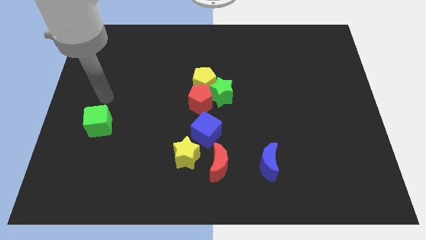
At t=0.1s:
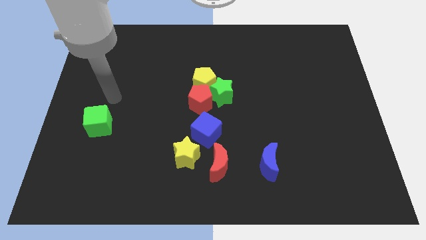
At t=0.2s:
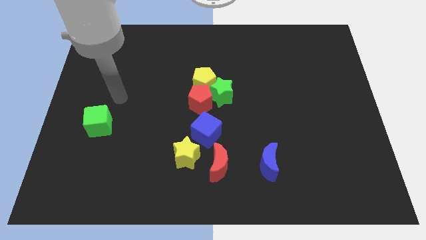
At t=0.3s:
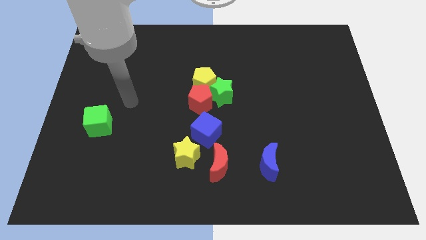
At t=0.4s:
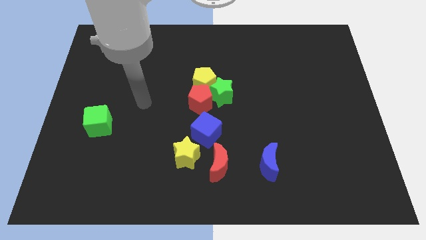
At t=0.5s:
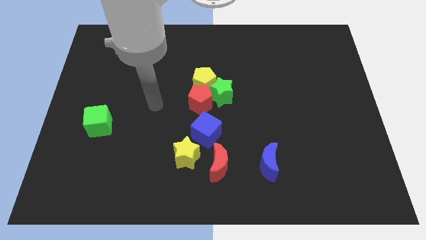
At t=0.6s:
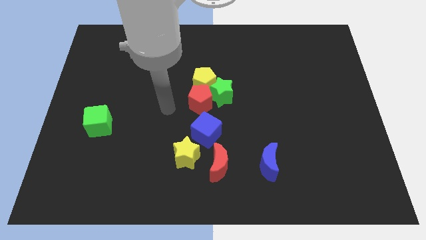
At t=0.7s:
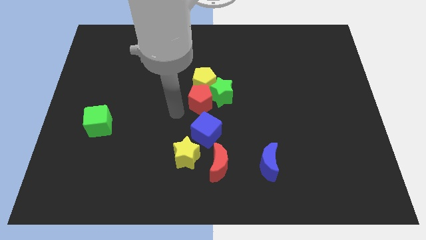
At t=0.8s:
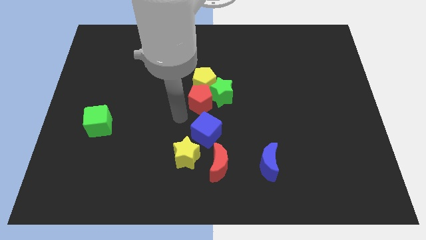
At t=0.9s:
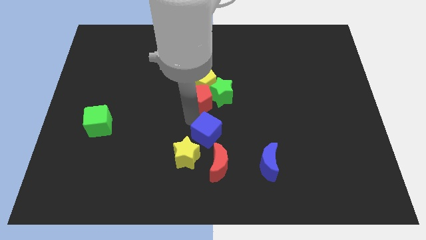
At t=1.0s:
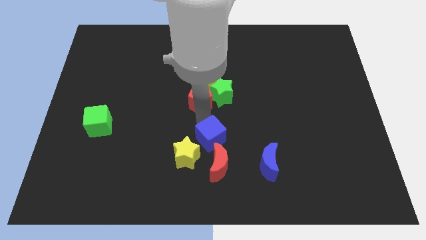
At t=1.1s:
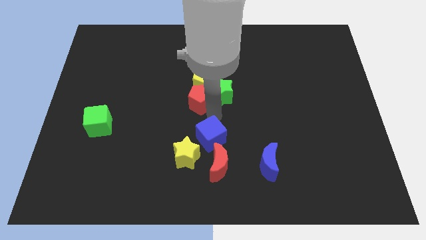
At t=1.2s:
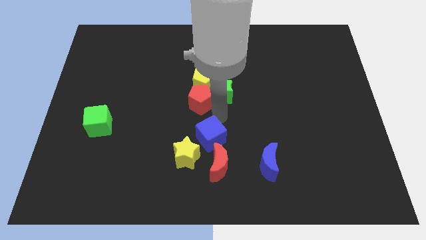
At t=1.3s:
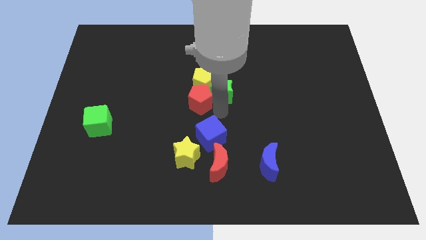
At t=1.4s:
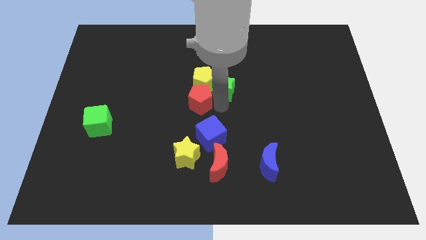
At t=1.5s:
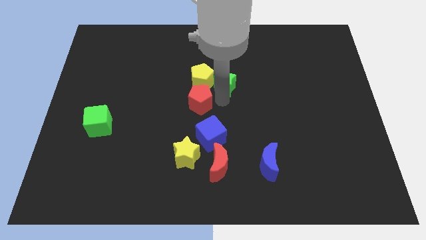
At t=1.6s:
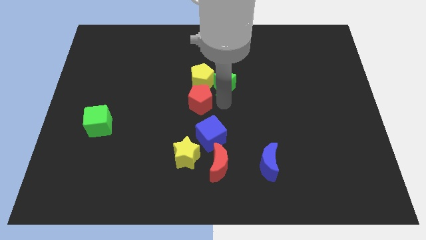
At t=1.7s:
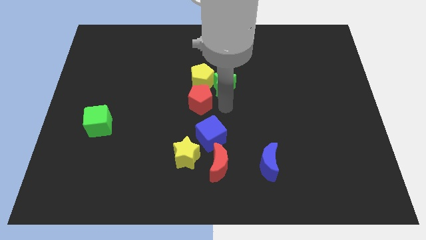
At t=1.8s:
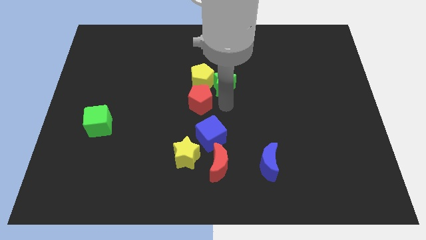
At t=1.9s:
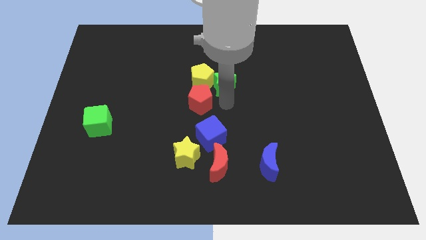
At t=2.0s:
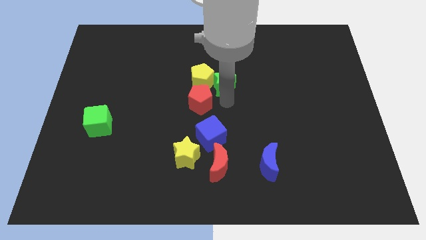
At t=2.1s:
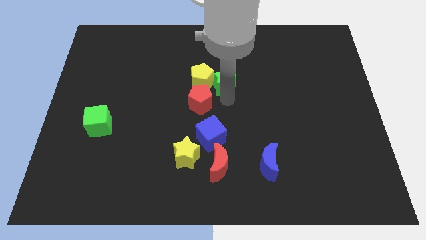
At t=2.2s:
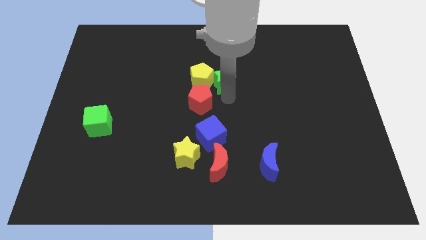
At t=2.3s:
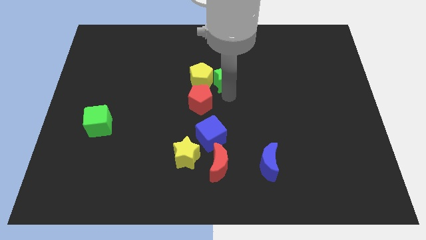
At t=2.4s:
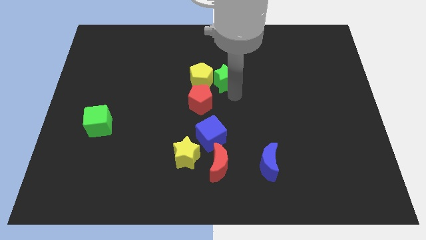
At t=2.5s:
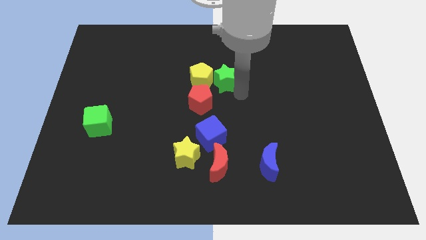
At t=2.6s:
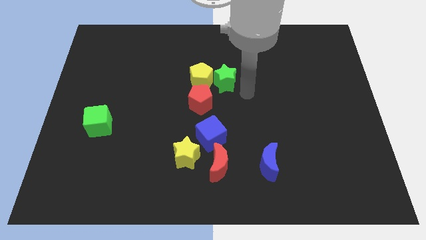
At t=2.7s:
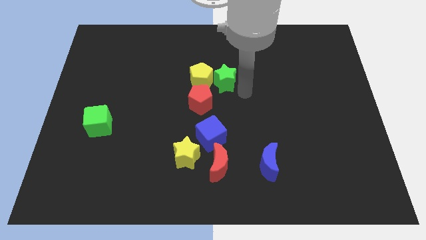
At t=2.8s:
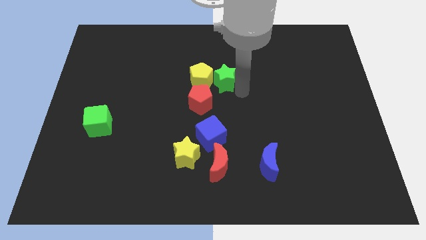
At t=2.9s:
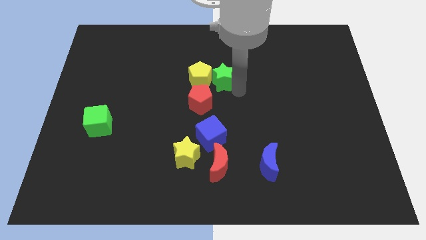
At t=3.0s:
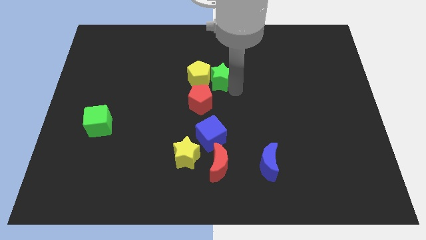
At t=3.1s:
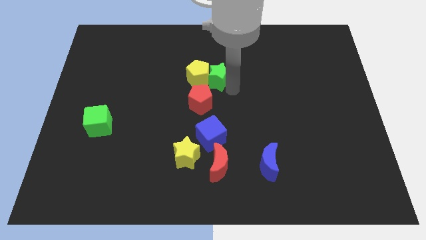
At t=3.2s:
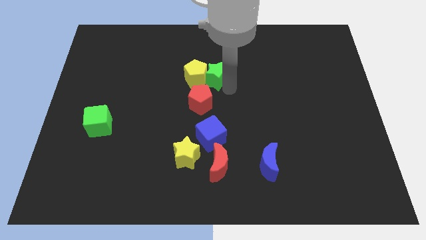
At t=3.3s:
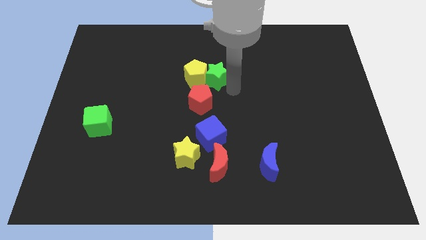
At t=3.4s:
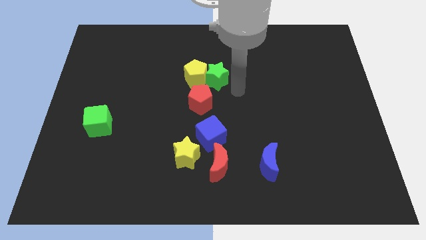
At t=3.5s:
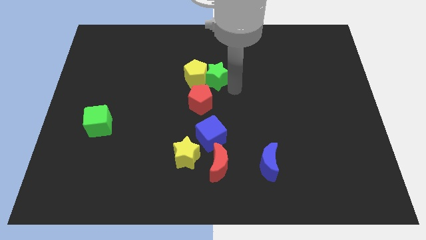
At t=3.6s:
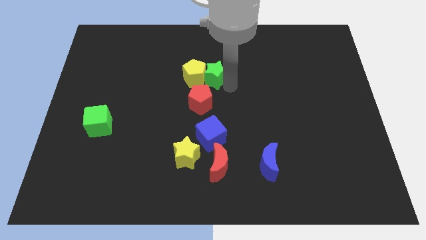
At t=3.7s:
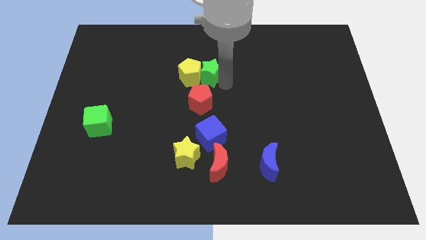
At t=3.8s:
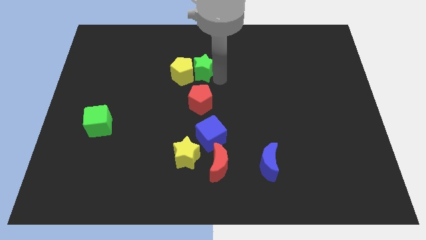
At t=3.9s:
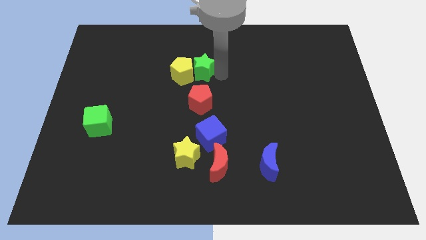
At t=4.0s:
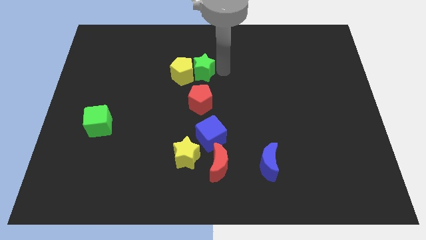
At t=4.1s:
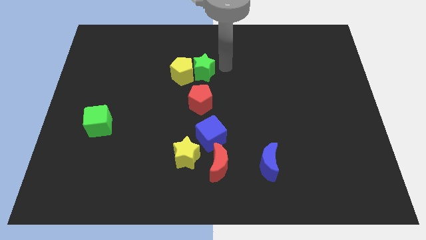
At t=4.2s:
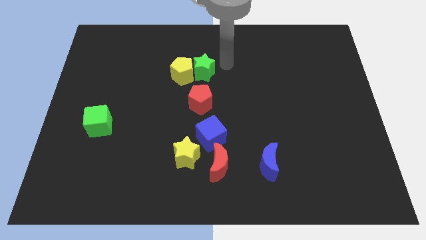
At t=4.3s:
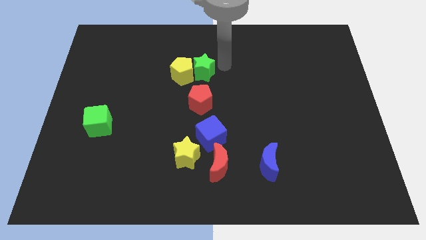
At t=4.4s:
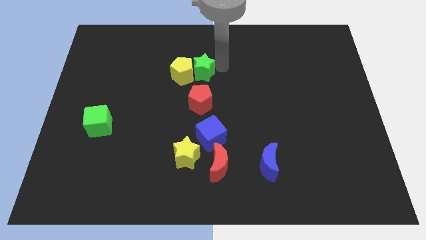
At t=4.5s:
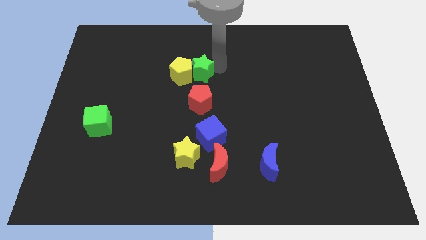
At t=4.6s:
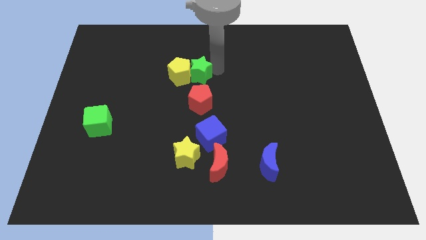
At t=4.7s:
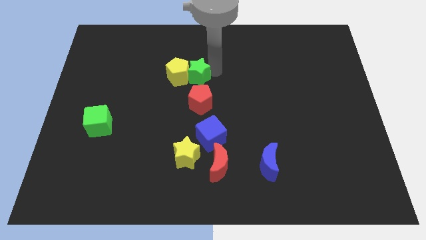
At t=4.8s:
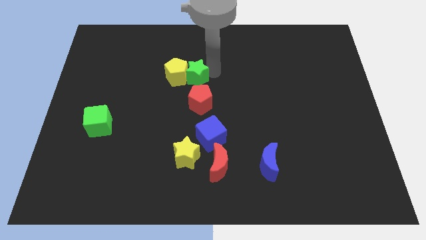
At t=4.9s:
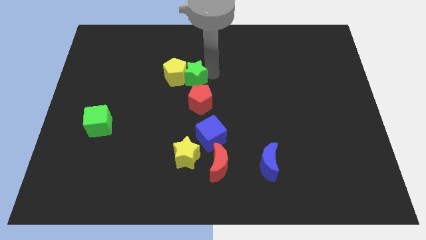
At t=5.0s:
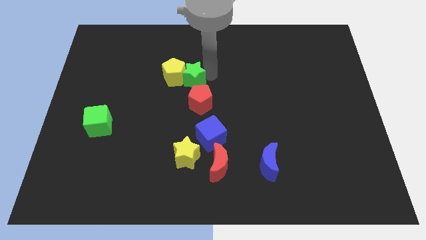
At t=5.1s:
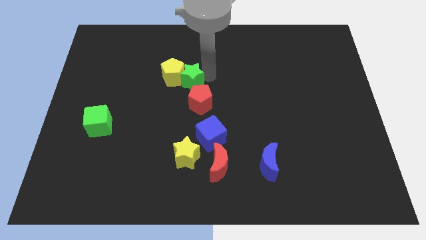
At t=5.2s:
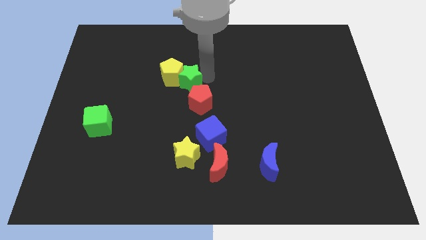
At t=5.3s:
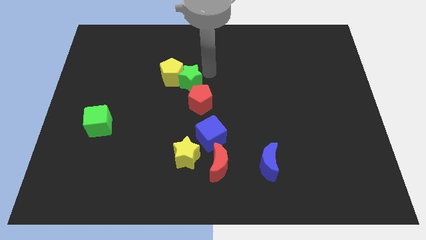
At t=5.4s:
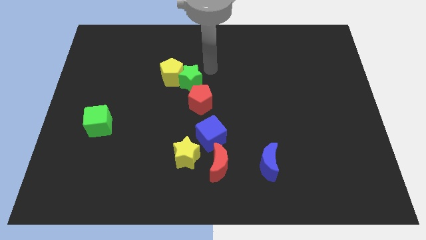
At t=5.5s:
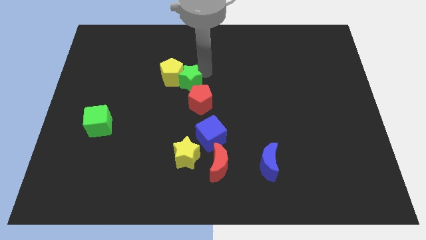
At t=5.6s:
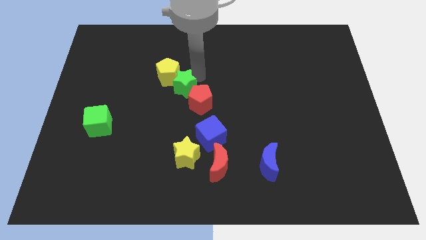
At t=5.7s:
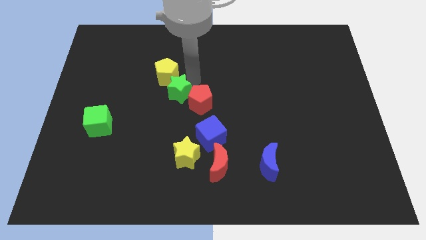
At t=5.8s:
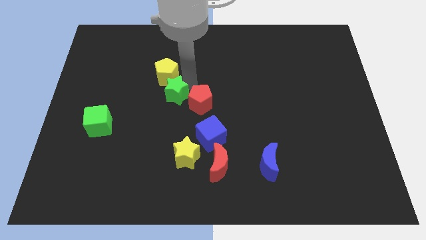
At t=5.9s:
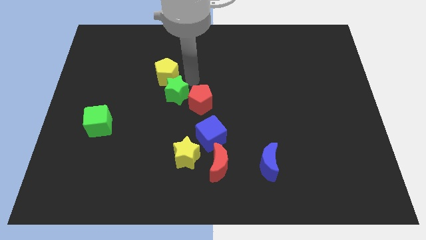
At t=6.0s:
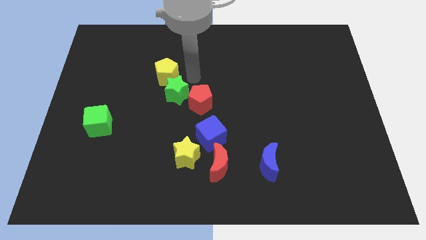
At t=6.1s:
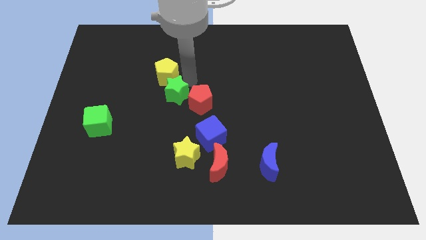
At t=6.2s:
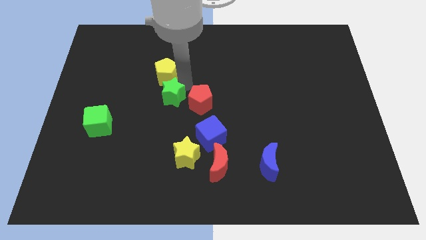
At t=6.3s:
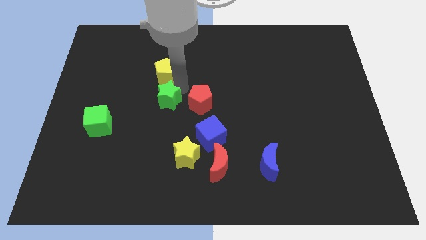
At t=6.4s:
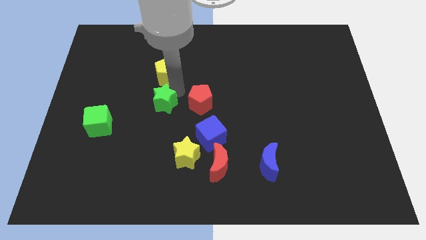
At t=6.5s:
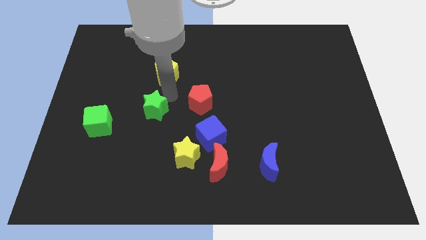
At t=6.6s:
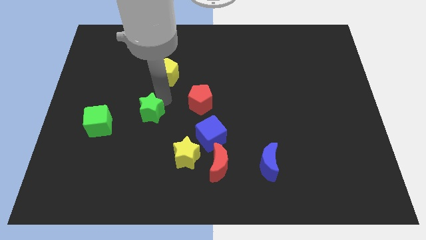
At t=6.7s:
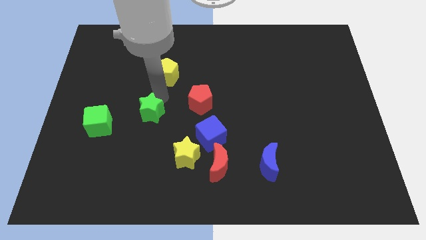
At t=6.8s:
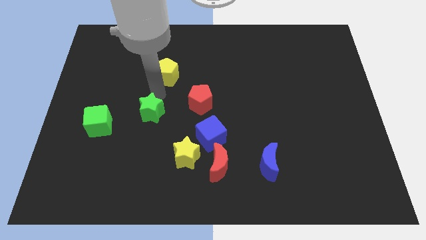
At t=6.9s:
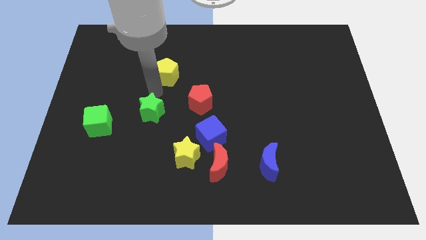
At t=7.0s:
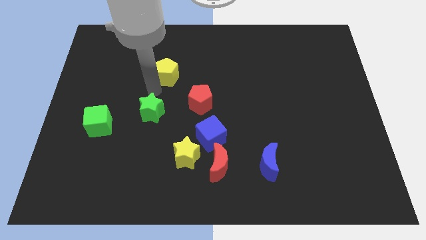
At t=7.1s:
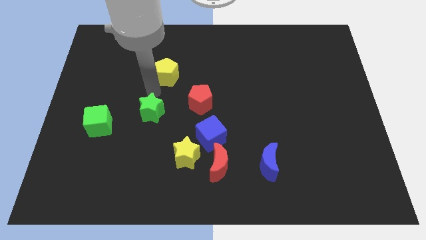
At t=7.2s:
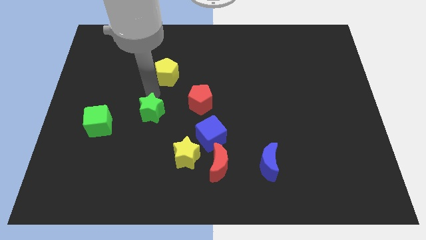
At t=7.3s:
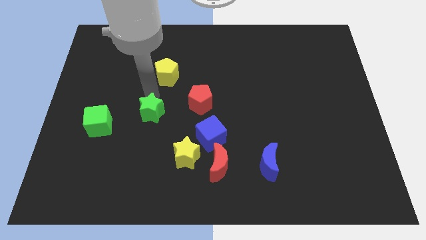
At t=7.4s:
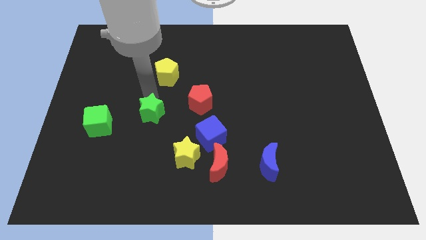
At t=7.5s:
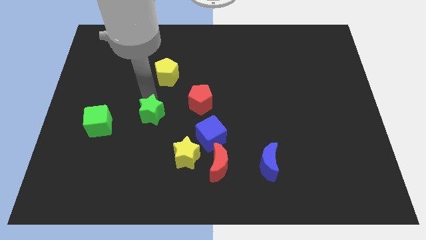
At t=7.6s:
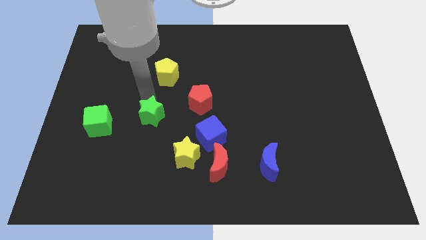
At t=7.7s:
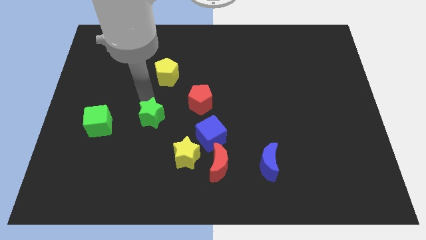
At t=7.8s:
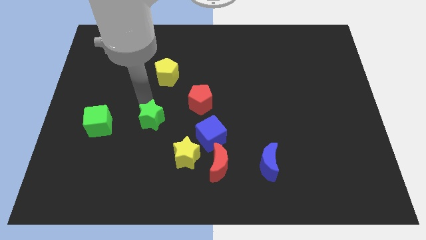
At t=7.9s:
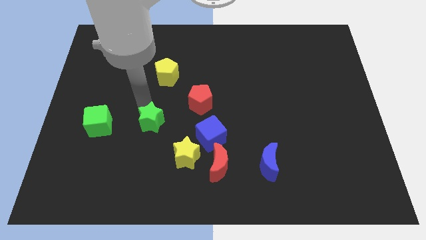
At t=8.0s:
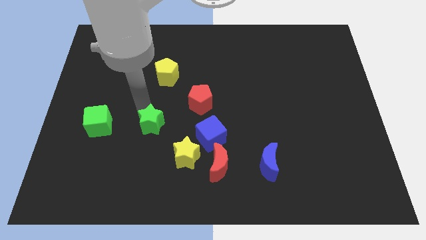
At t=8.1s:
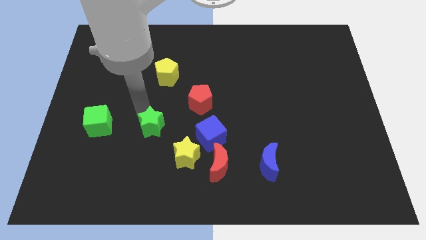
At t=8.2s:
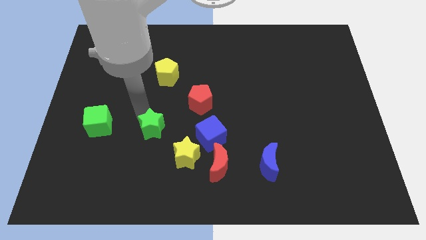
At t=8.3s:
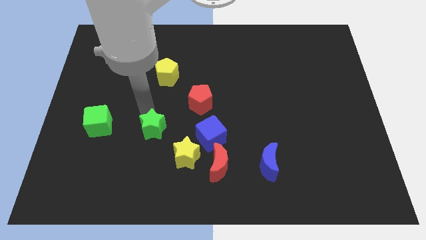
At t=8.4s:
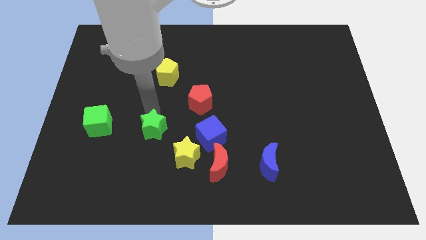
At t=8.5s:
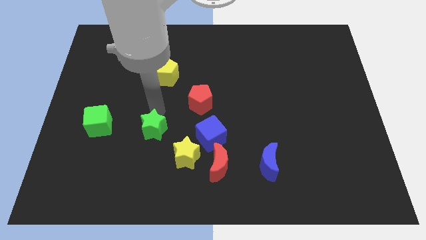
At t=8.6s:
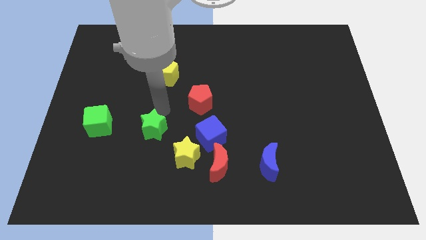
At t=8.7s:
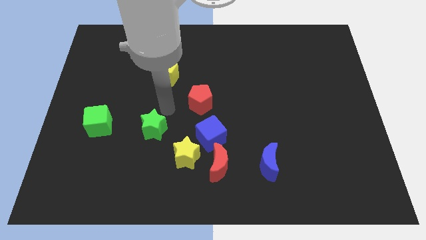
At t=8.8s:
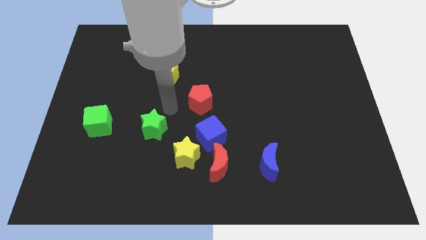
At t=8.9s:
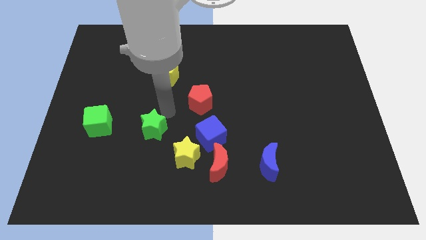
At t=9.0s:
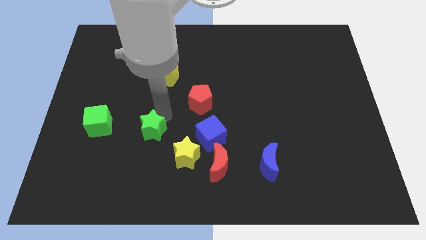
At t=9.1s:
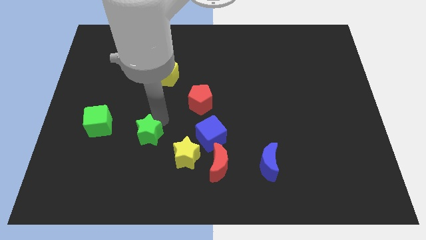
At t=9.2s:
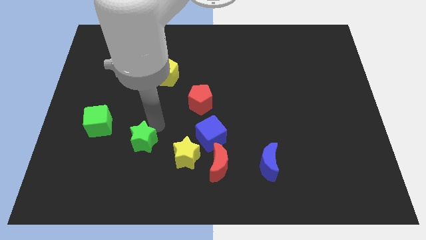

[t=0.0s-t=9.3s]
slide the green star down and to the left
